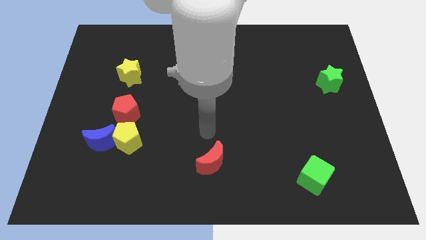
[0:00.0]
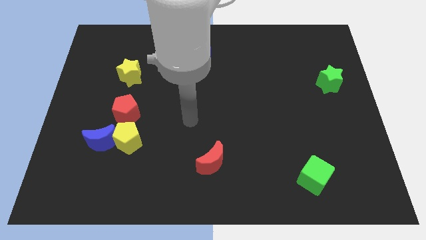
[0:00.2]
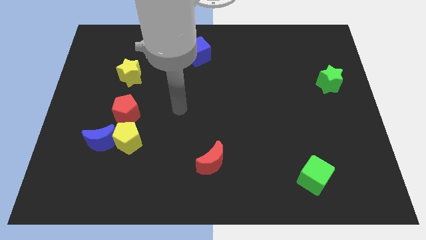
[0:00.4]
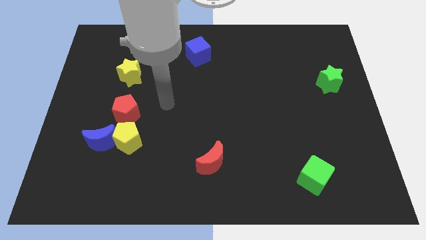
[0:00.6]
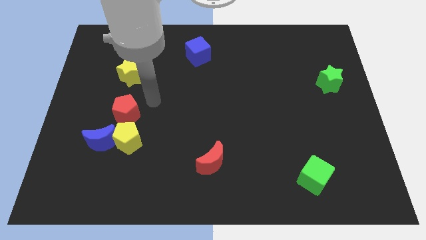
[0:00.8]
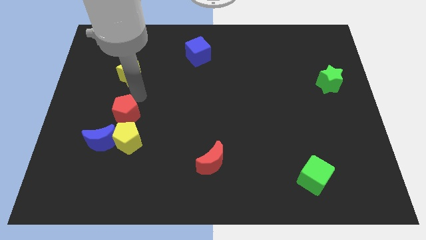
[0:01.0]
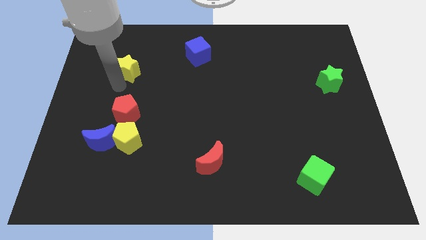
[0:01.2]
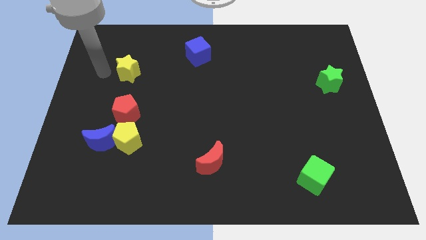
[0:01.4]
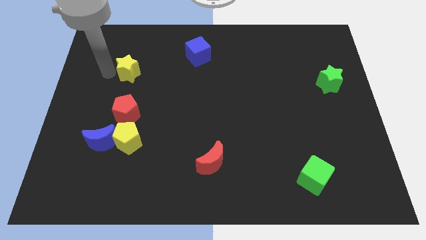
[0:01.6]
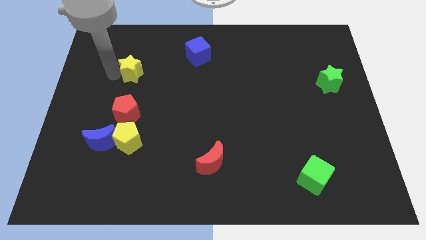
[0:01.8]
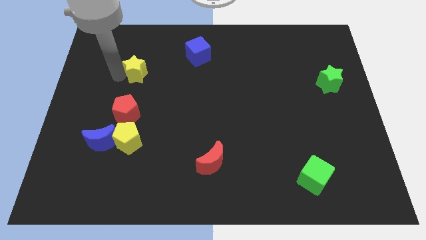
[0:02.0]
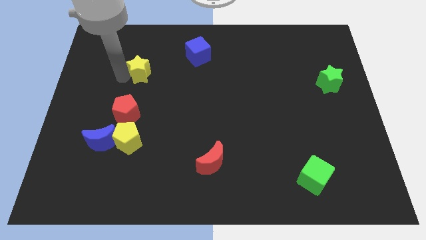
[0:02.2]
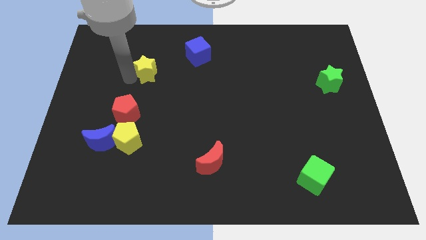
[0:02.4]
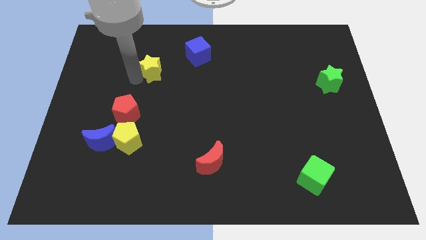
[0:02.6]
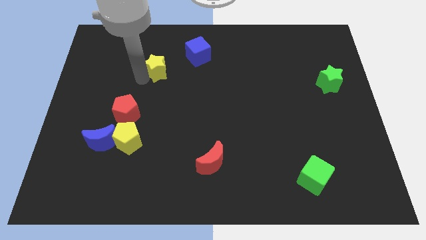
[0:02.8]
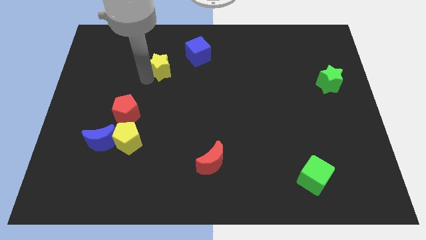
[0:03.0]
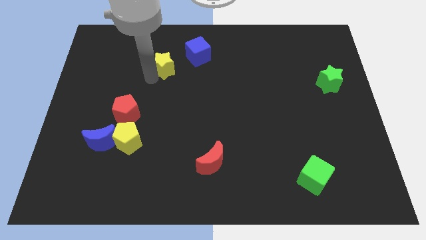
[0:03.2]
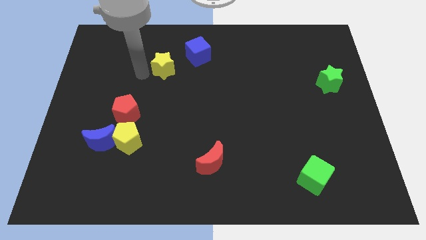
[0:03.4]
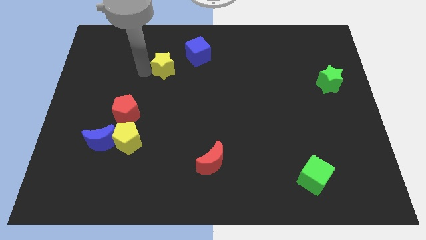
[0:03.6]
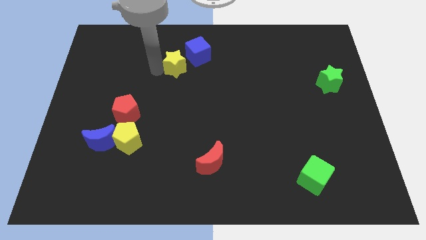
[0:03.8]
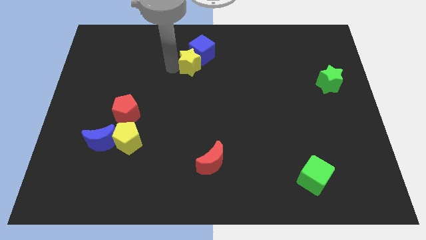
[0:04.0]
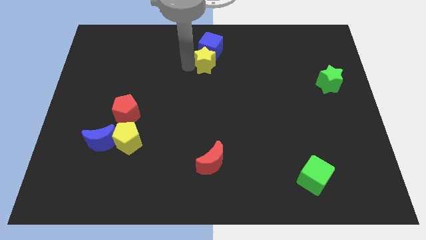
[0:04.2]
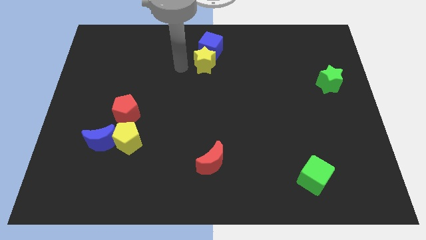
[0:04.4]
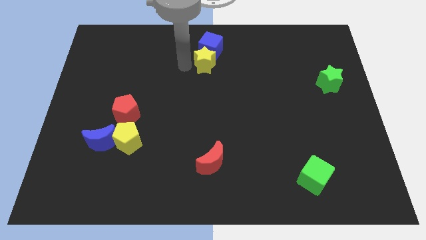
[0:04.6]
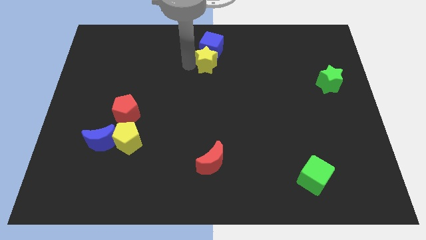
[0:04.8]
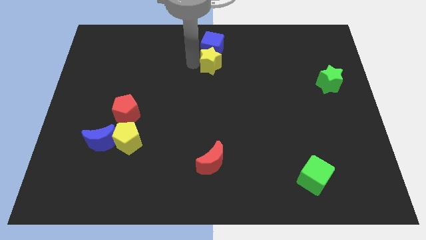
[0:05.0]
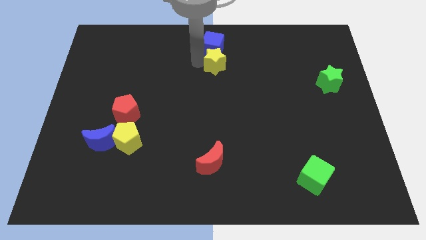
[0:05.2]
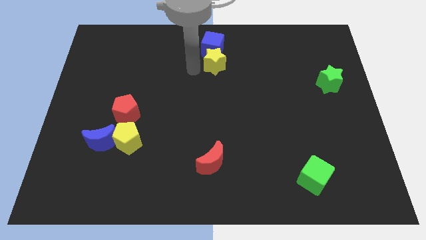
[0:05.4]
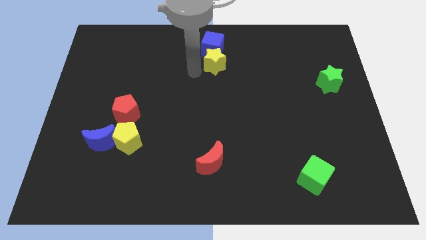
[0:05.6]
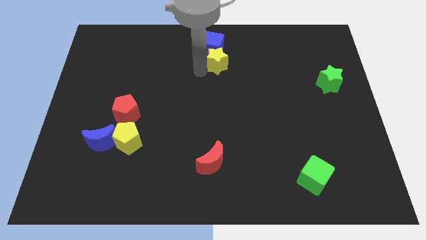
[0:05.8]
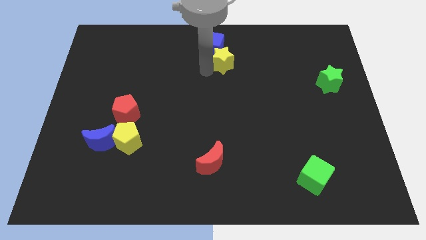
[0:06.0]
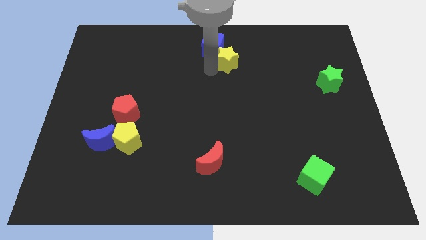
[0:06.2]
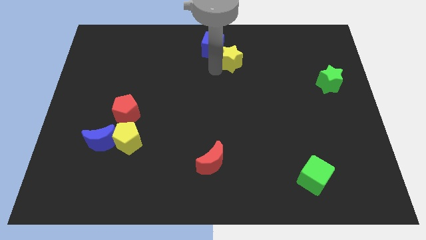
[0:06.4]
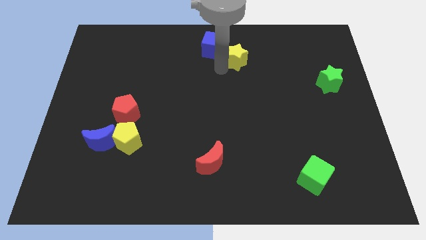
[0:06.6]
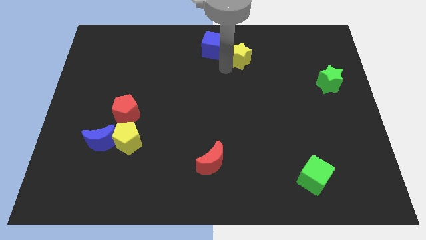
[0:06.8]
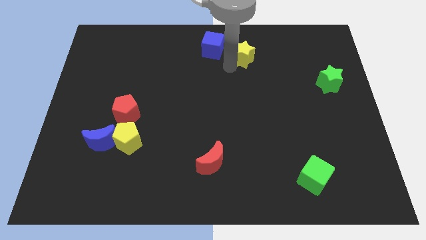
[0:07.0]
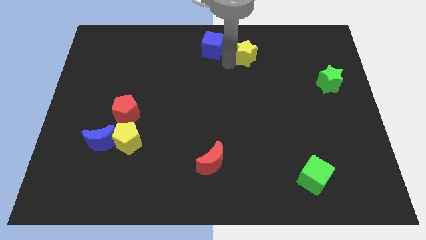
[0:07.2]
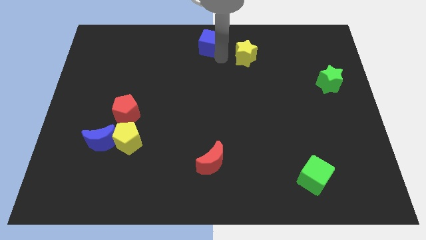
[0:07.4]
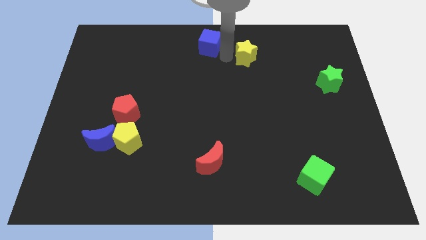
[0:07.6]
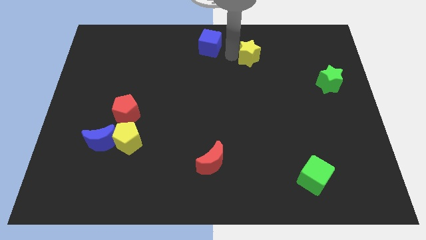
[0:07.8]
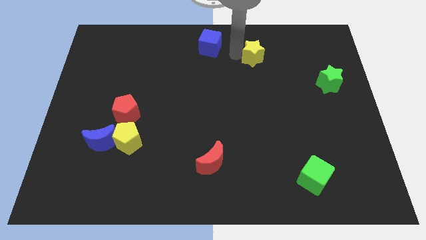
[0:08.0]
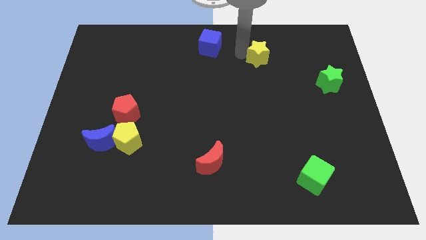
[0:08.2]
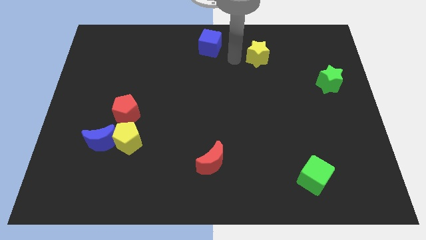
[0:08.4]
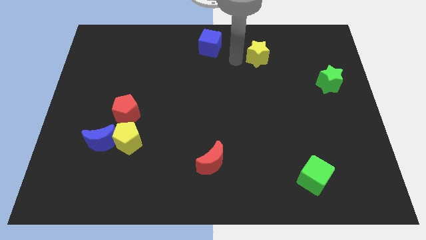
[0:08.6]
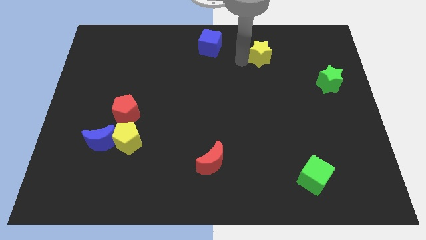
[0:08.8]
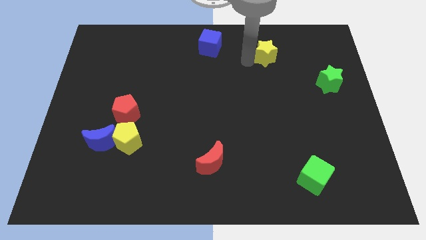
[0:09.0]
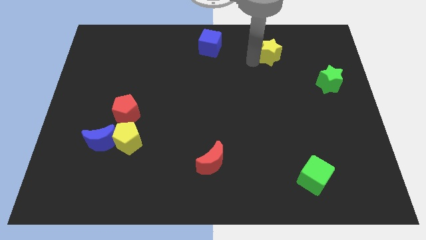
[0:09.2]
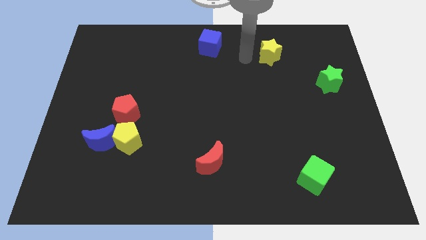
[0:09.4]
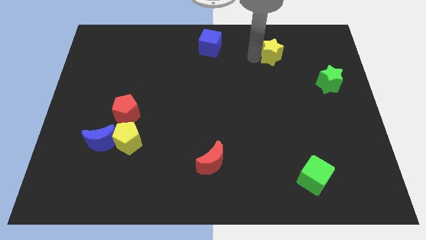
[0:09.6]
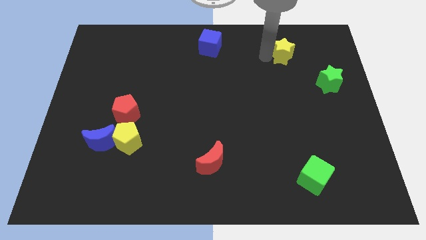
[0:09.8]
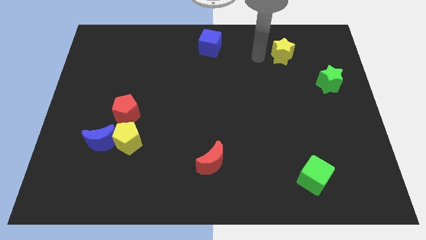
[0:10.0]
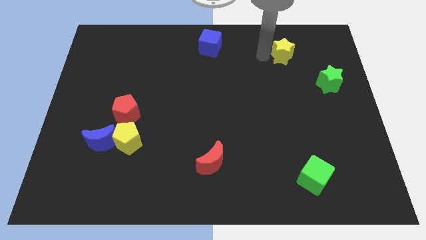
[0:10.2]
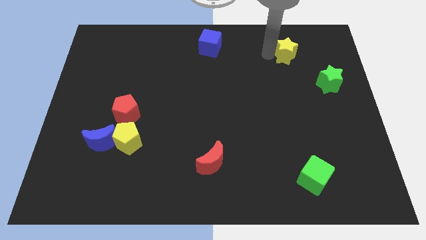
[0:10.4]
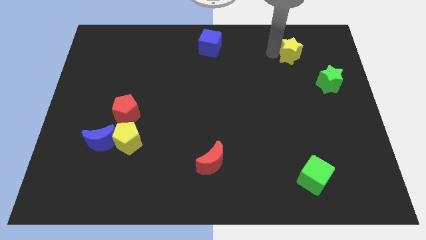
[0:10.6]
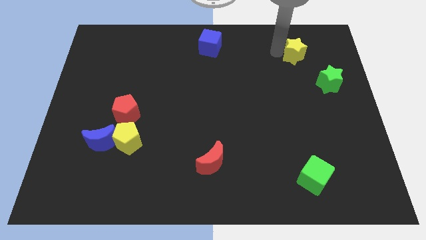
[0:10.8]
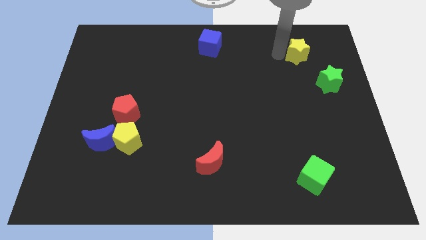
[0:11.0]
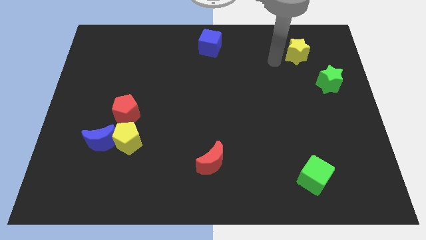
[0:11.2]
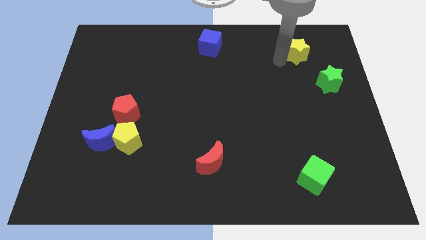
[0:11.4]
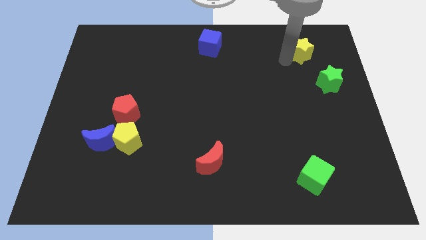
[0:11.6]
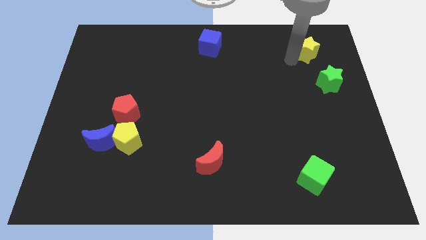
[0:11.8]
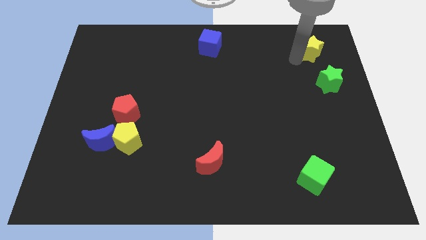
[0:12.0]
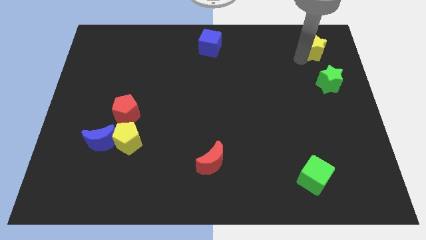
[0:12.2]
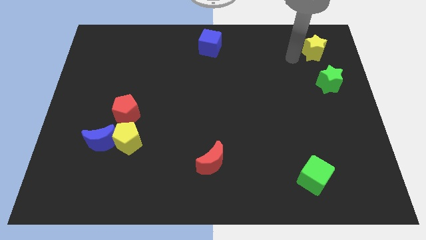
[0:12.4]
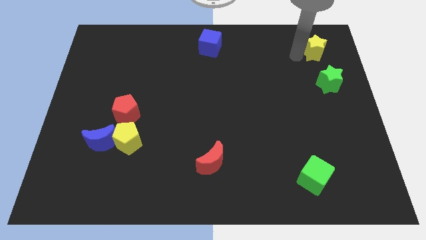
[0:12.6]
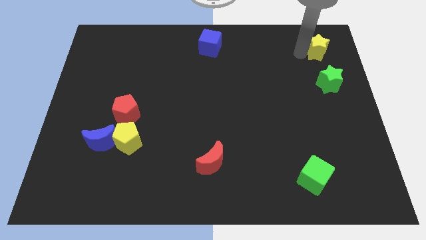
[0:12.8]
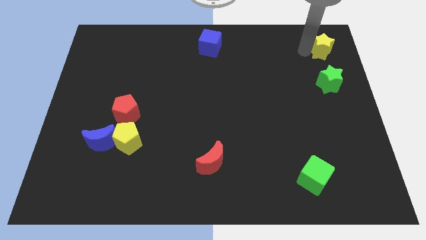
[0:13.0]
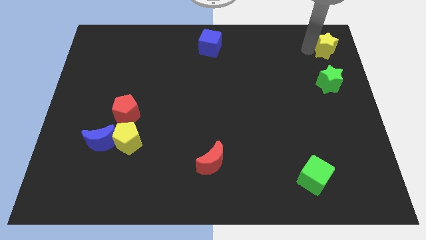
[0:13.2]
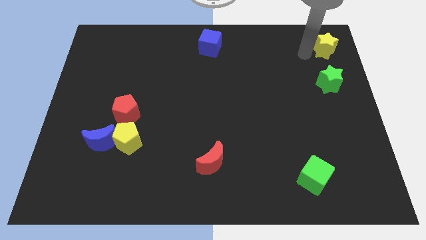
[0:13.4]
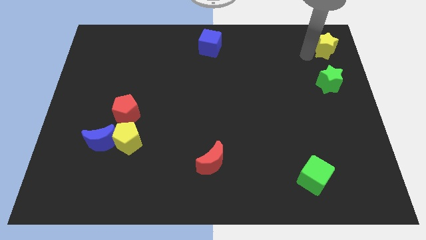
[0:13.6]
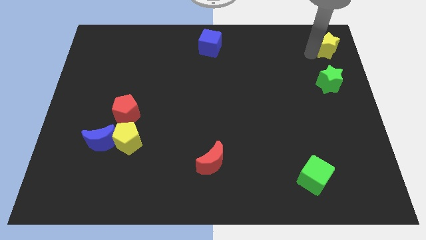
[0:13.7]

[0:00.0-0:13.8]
push the yellow star to the top right corner
